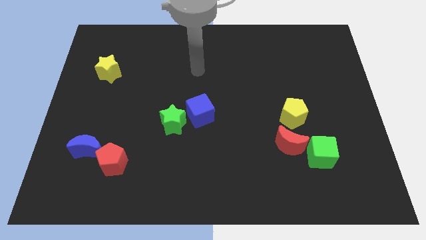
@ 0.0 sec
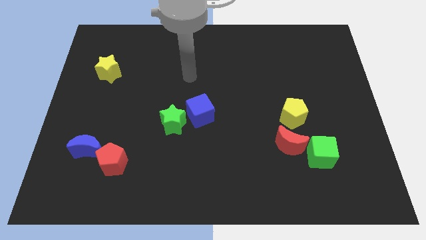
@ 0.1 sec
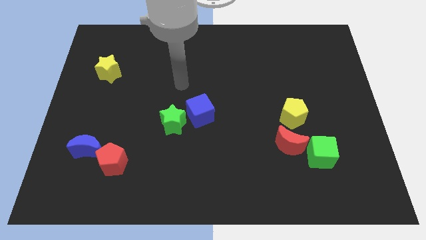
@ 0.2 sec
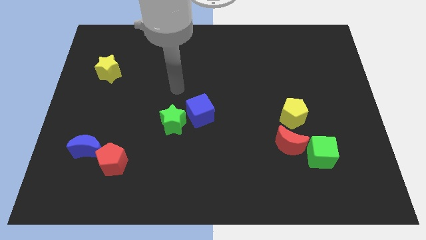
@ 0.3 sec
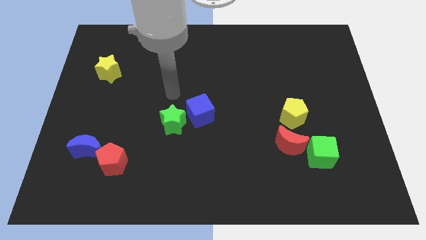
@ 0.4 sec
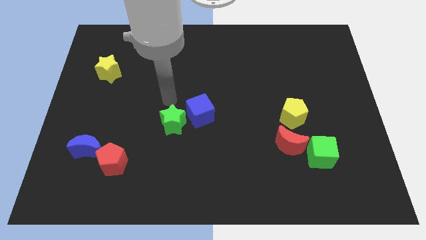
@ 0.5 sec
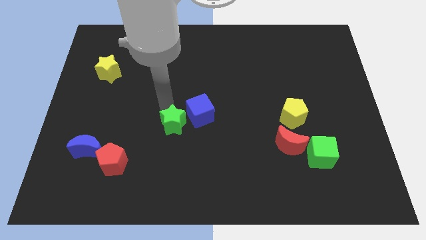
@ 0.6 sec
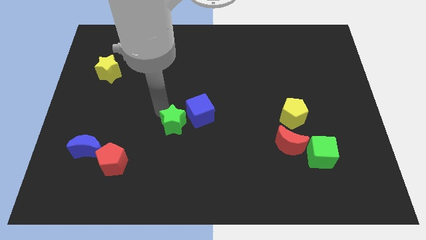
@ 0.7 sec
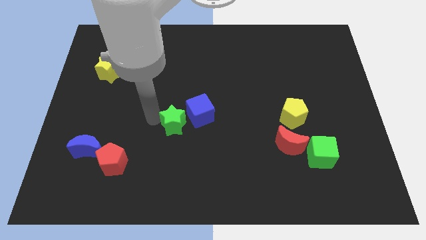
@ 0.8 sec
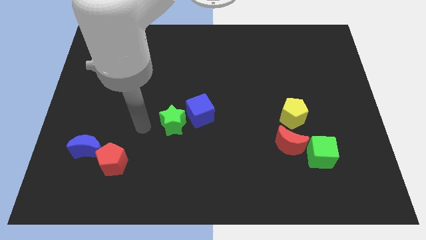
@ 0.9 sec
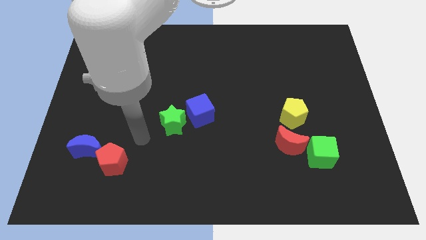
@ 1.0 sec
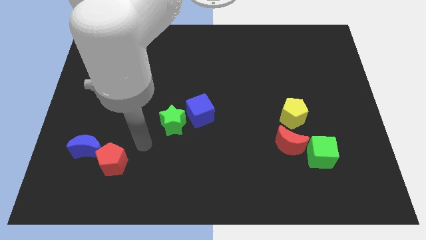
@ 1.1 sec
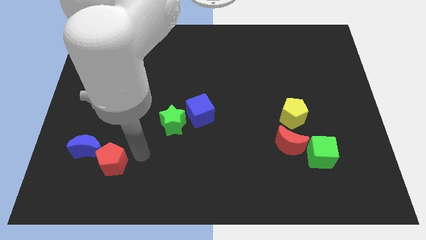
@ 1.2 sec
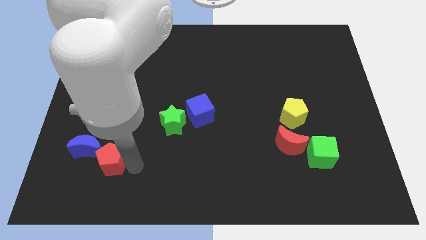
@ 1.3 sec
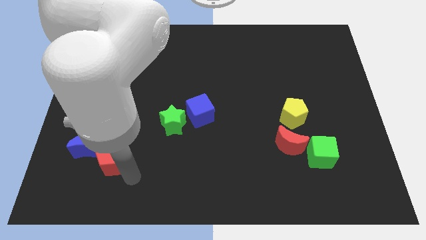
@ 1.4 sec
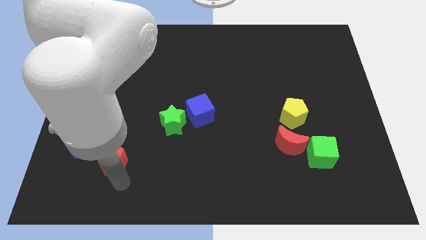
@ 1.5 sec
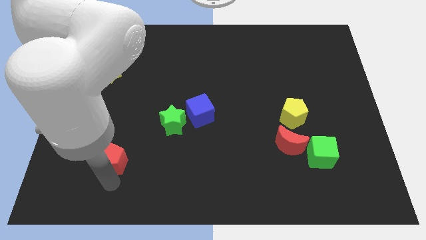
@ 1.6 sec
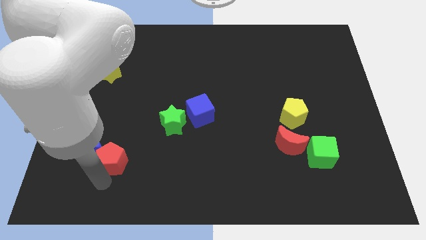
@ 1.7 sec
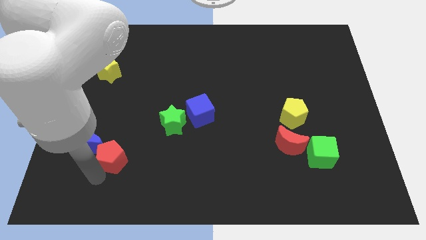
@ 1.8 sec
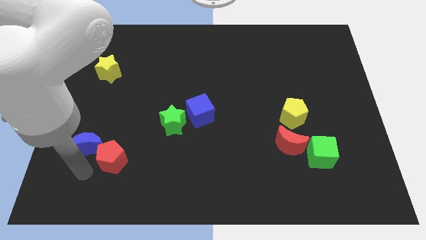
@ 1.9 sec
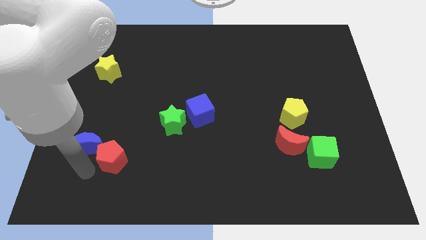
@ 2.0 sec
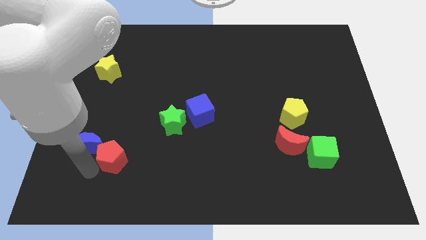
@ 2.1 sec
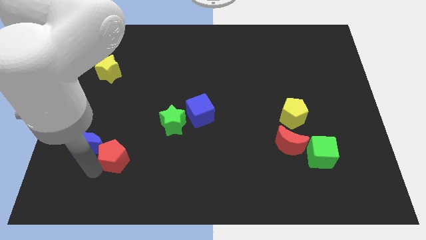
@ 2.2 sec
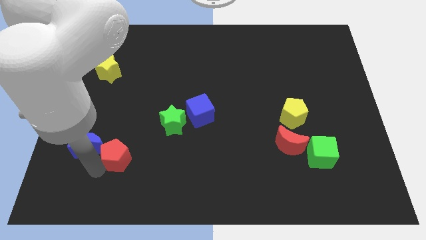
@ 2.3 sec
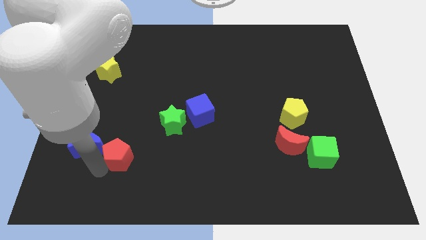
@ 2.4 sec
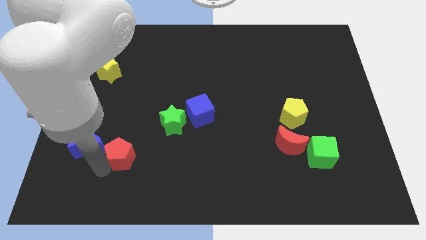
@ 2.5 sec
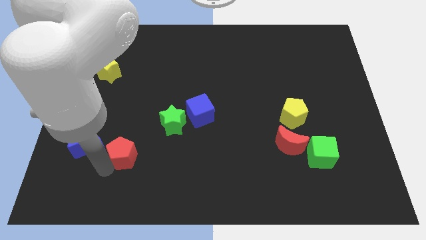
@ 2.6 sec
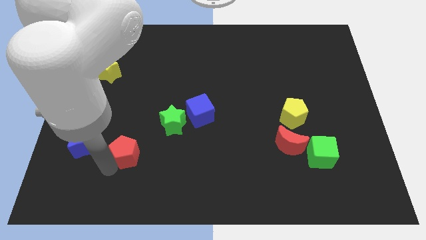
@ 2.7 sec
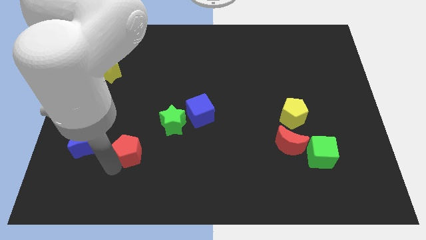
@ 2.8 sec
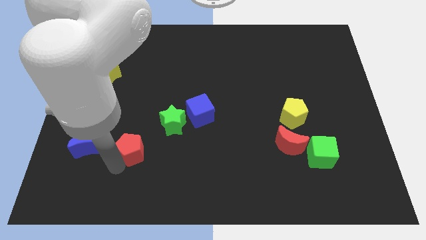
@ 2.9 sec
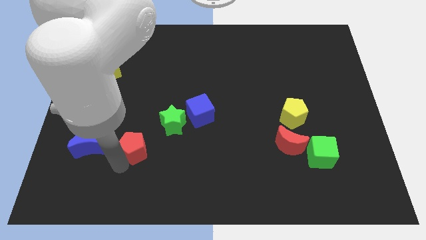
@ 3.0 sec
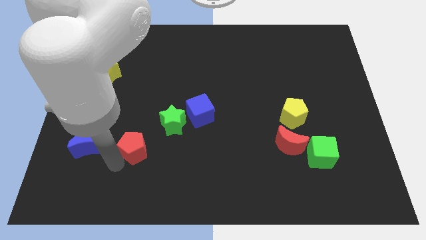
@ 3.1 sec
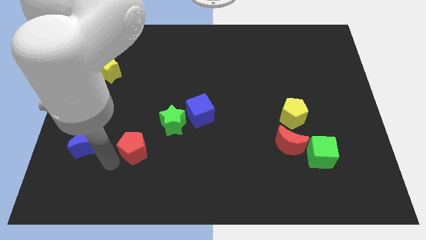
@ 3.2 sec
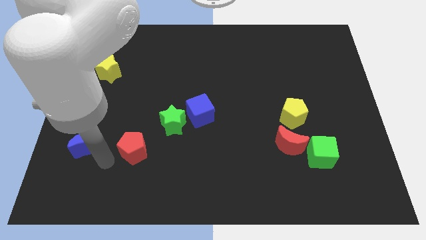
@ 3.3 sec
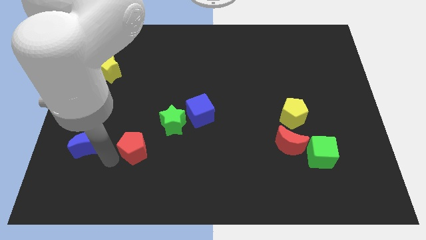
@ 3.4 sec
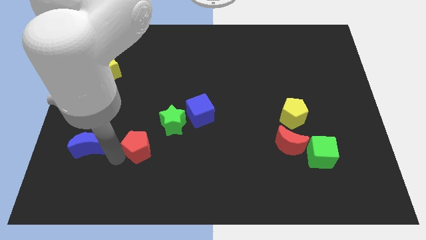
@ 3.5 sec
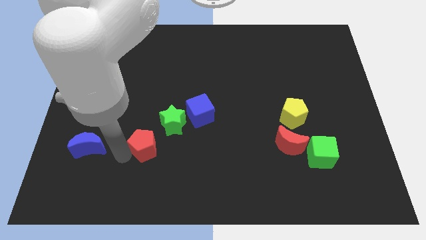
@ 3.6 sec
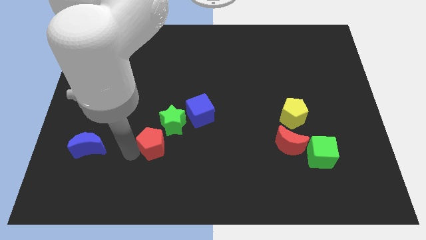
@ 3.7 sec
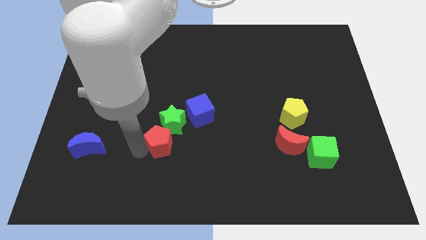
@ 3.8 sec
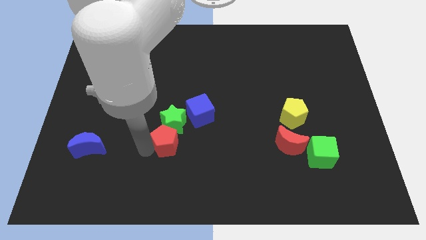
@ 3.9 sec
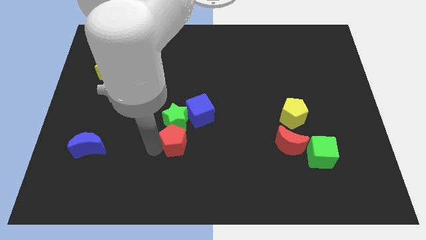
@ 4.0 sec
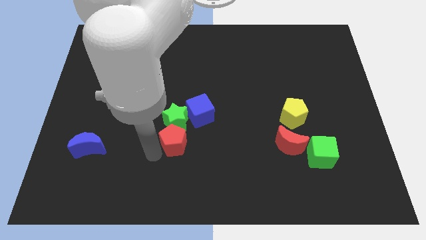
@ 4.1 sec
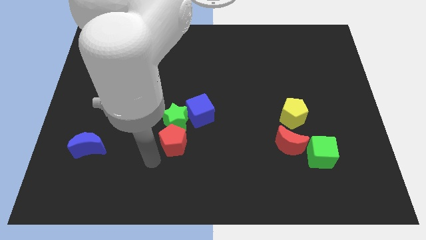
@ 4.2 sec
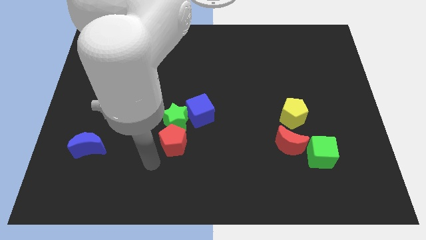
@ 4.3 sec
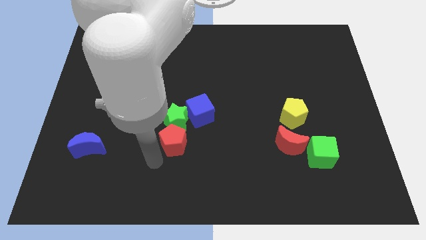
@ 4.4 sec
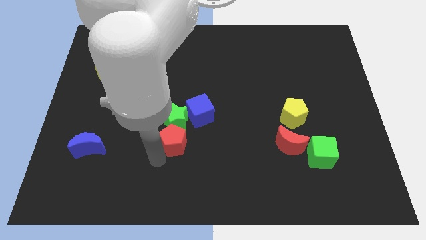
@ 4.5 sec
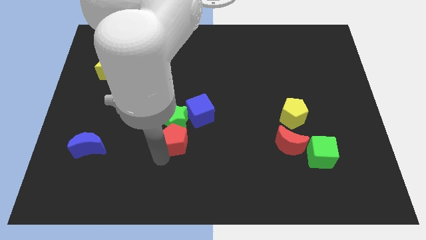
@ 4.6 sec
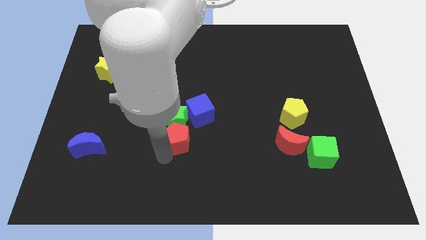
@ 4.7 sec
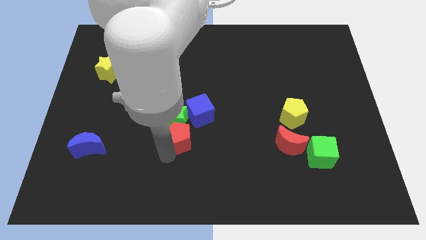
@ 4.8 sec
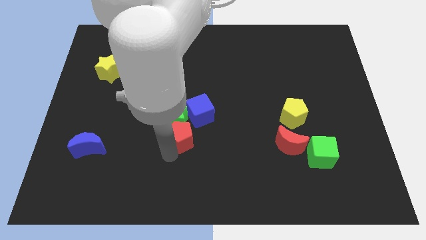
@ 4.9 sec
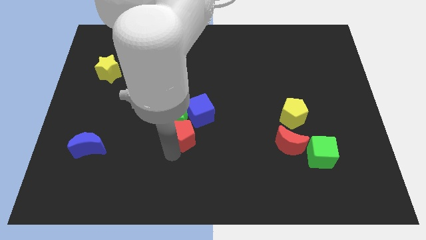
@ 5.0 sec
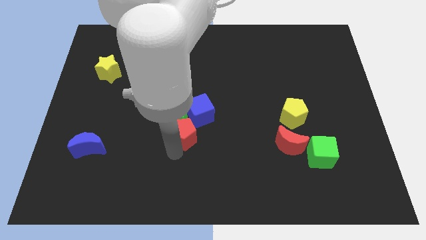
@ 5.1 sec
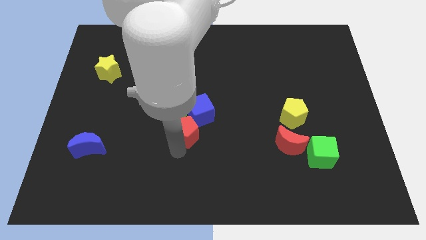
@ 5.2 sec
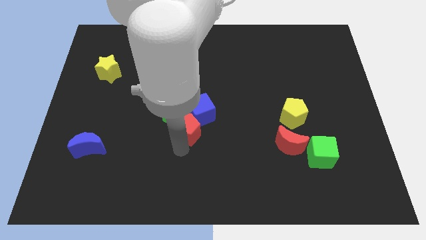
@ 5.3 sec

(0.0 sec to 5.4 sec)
slide the red pentagon next to the blue cube

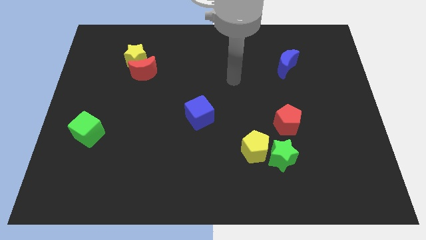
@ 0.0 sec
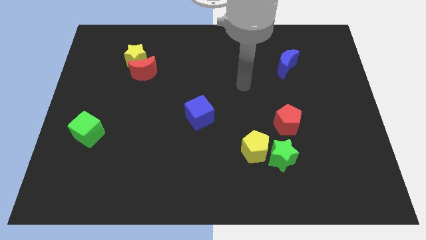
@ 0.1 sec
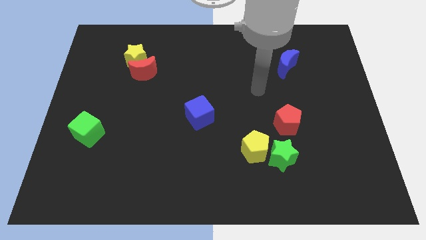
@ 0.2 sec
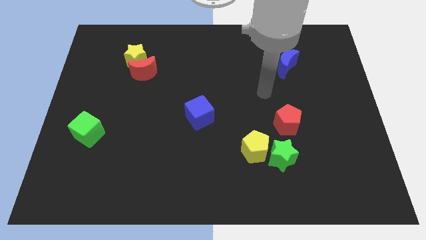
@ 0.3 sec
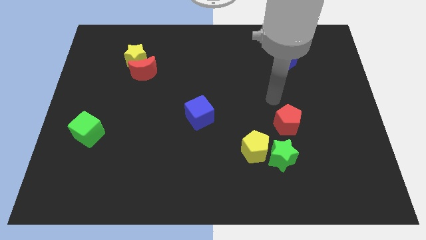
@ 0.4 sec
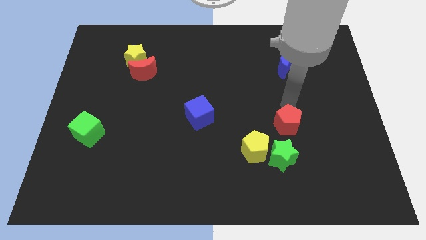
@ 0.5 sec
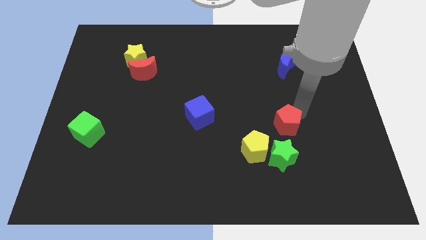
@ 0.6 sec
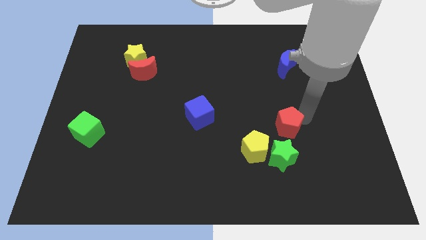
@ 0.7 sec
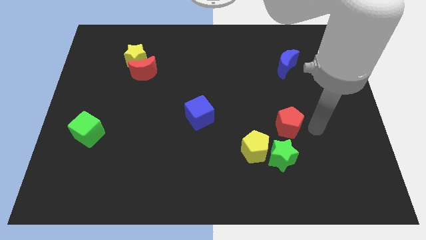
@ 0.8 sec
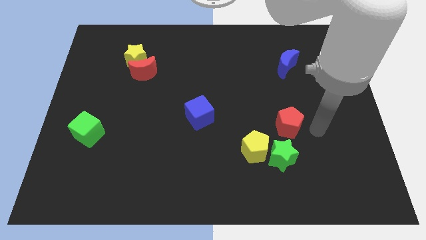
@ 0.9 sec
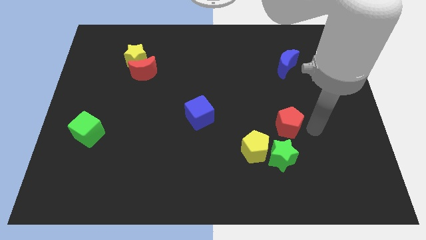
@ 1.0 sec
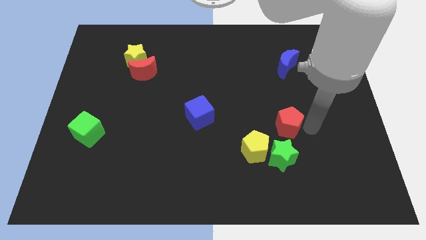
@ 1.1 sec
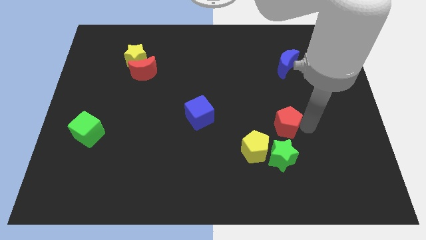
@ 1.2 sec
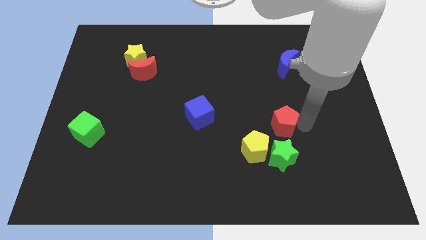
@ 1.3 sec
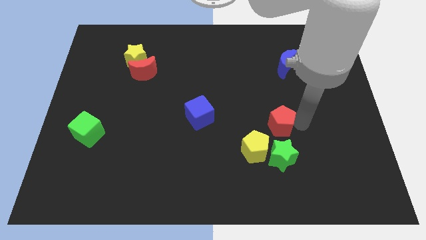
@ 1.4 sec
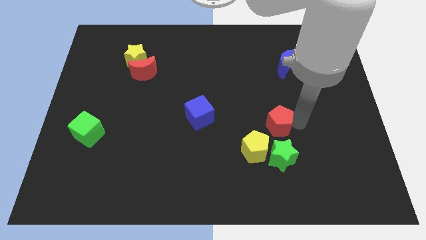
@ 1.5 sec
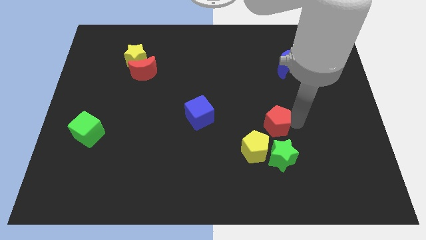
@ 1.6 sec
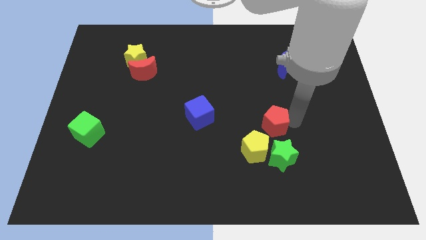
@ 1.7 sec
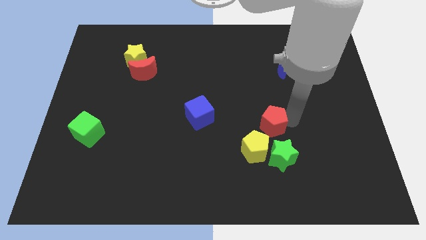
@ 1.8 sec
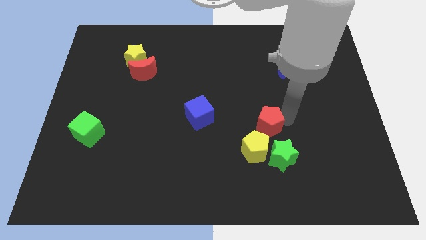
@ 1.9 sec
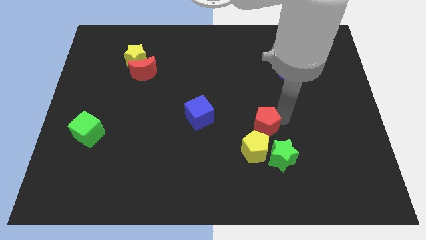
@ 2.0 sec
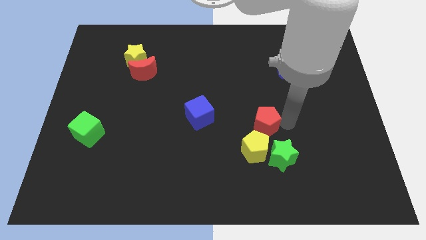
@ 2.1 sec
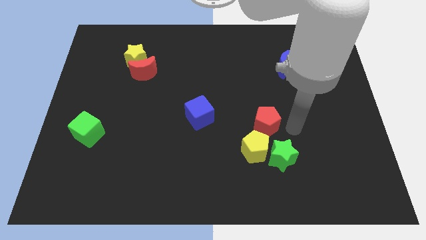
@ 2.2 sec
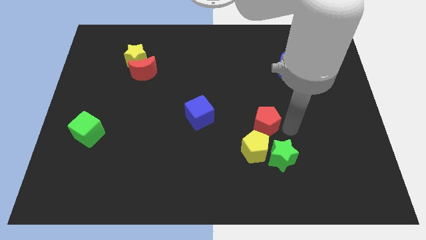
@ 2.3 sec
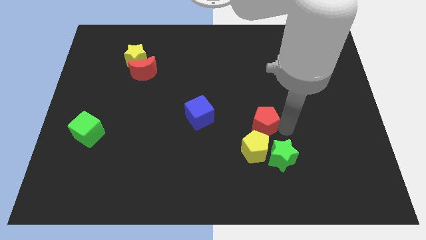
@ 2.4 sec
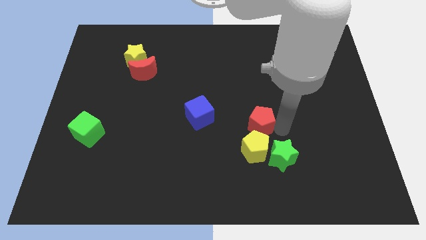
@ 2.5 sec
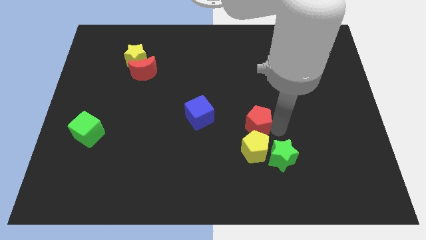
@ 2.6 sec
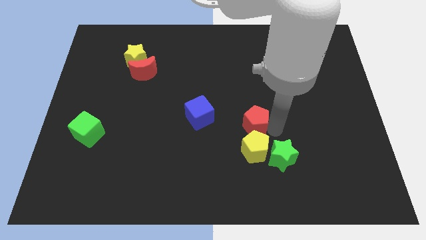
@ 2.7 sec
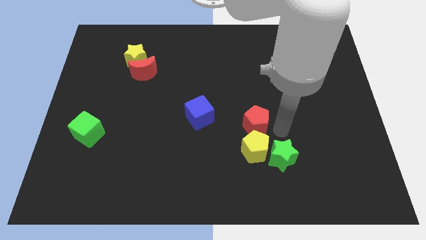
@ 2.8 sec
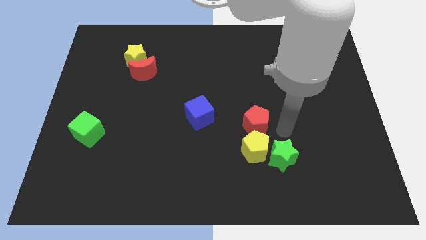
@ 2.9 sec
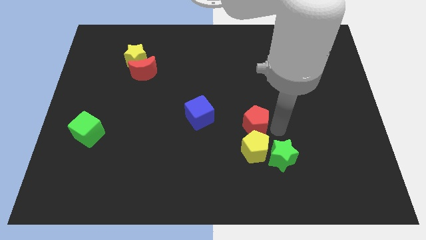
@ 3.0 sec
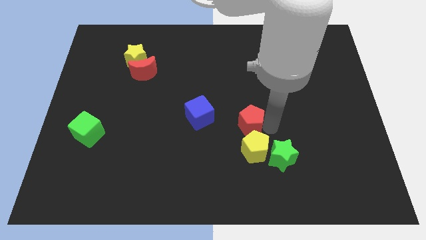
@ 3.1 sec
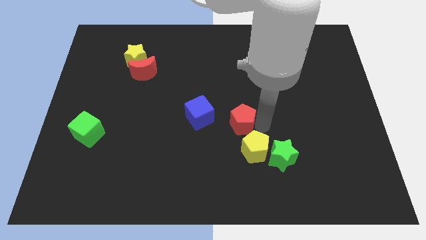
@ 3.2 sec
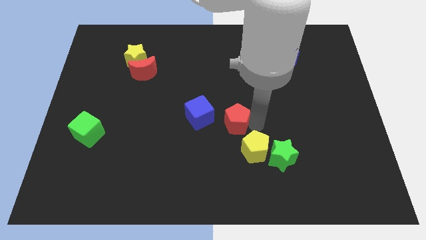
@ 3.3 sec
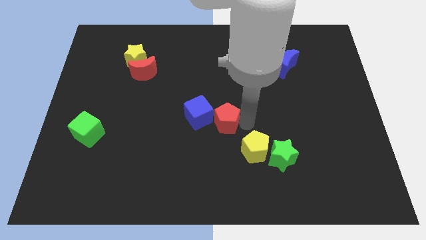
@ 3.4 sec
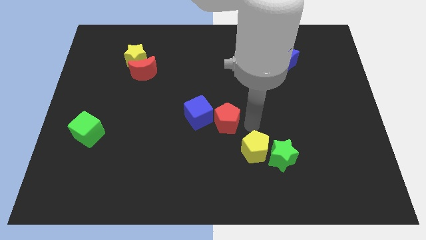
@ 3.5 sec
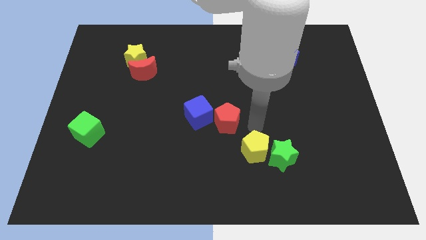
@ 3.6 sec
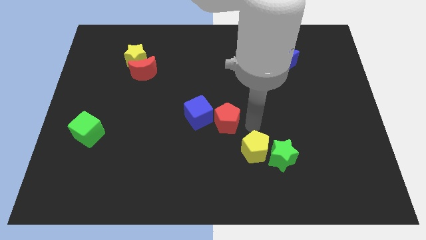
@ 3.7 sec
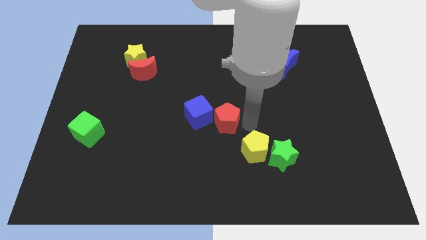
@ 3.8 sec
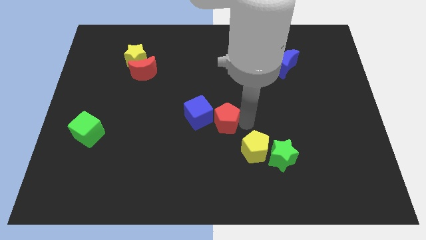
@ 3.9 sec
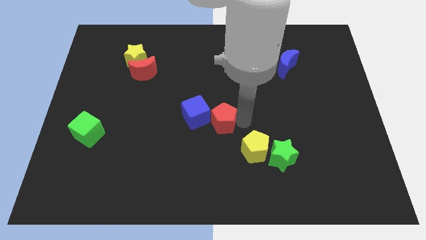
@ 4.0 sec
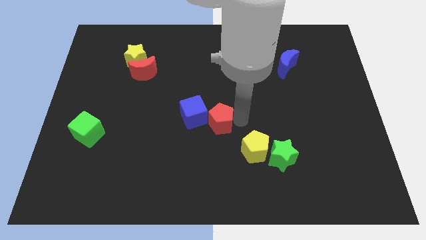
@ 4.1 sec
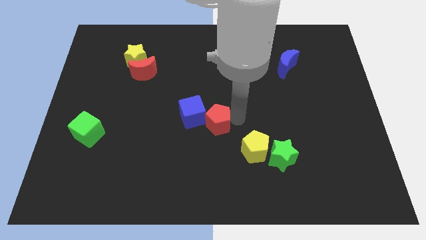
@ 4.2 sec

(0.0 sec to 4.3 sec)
put the red pentagon close to the blue cube
